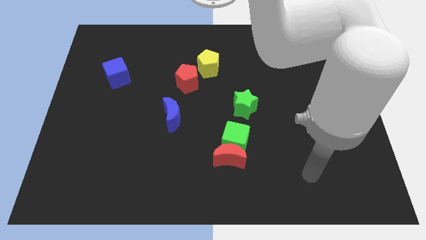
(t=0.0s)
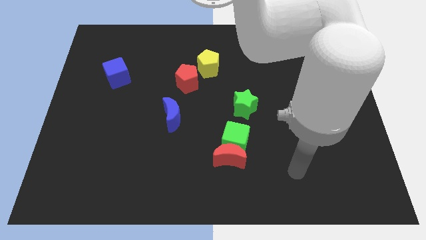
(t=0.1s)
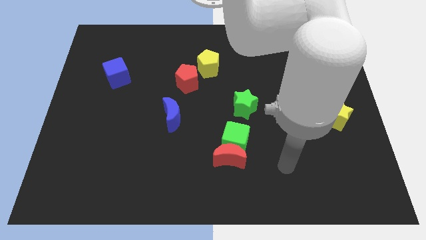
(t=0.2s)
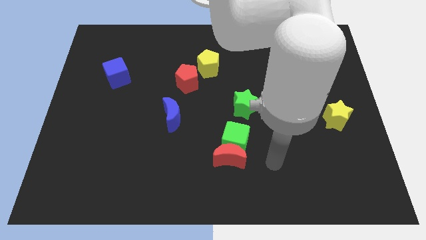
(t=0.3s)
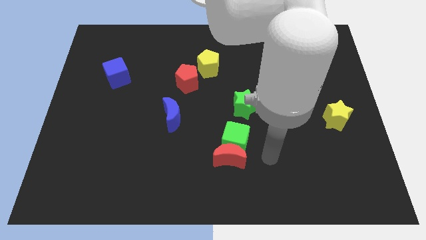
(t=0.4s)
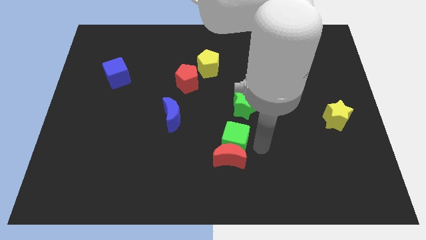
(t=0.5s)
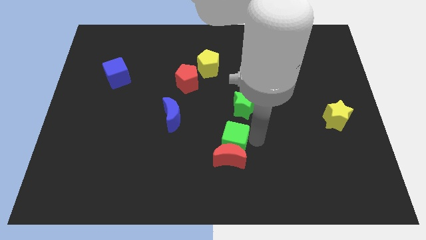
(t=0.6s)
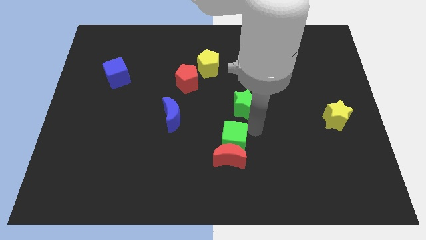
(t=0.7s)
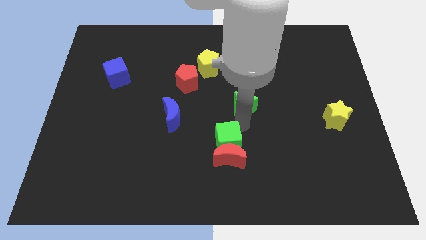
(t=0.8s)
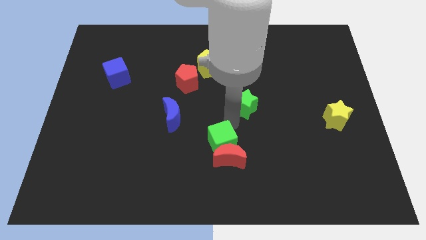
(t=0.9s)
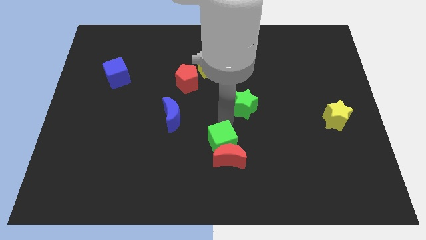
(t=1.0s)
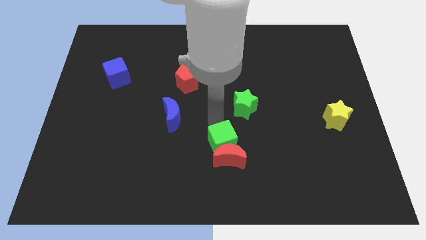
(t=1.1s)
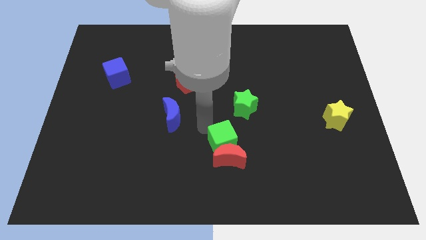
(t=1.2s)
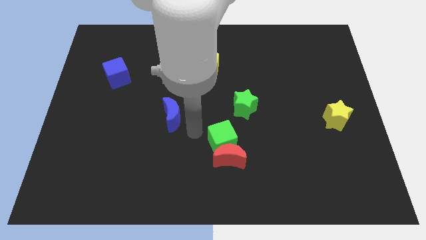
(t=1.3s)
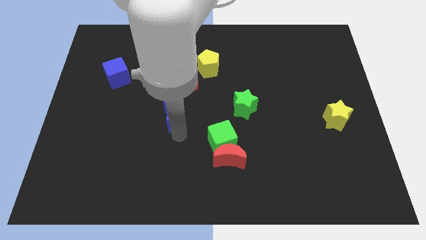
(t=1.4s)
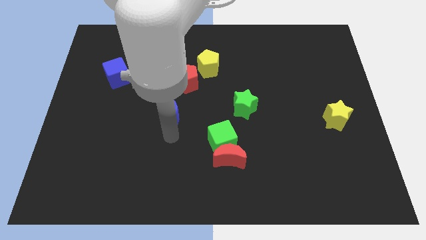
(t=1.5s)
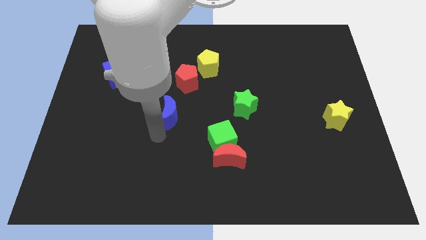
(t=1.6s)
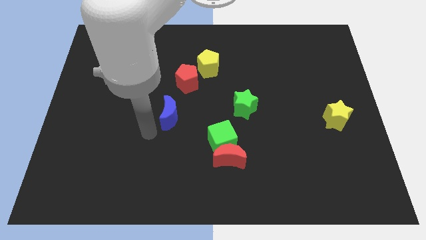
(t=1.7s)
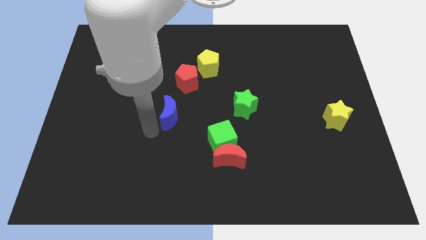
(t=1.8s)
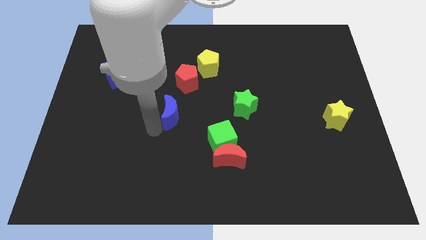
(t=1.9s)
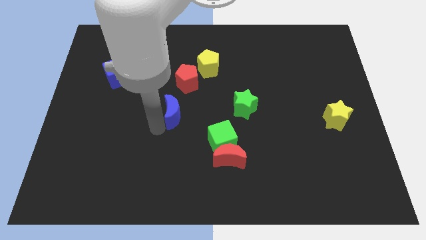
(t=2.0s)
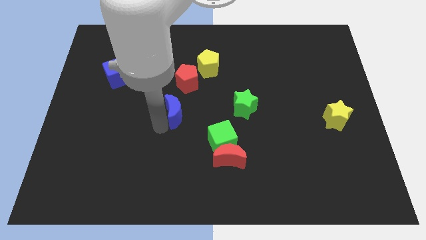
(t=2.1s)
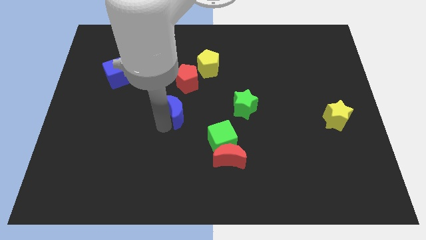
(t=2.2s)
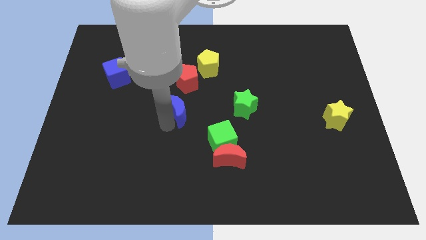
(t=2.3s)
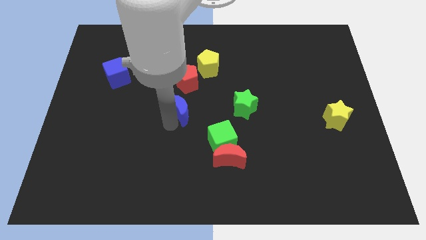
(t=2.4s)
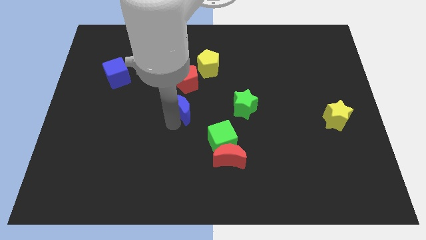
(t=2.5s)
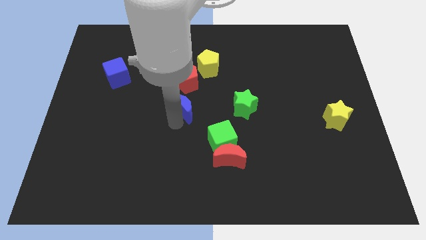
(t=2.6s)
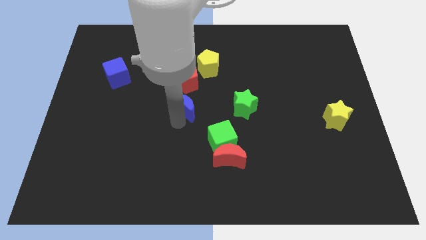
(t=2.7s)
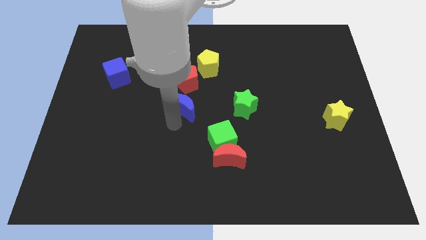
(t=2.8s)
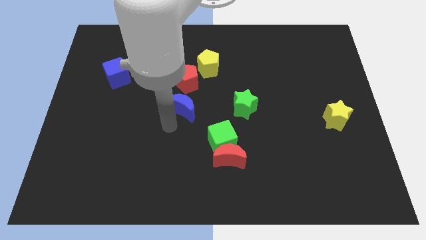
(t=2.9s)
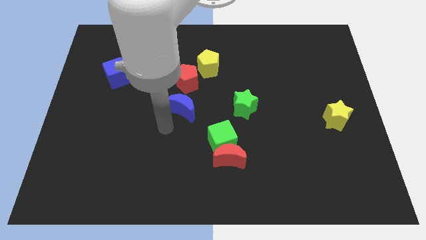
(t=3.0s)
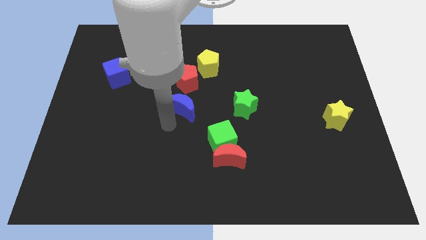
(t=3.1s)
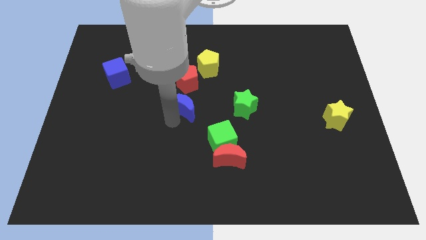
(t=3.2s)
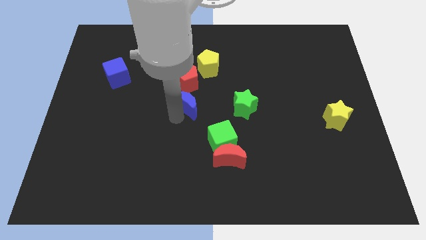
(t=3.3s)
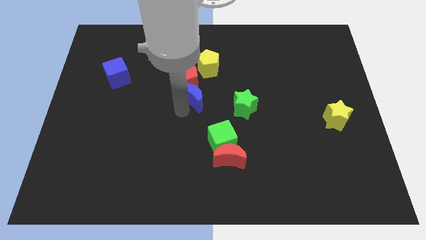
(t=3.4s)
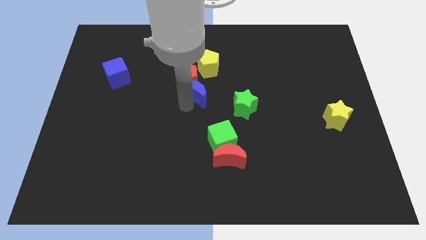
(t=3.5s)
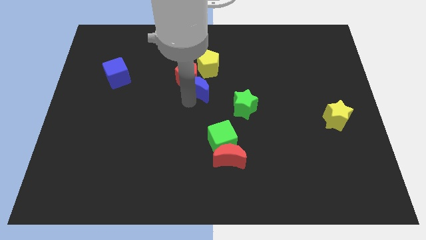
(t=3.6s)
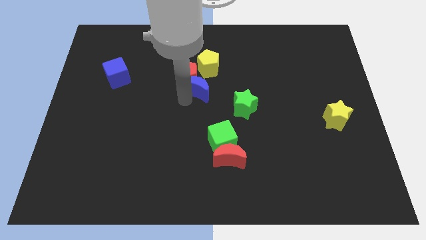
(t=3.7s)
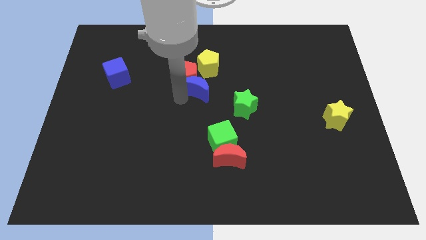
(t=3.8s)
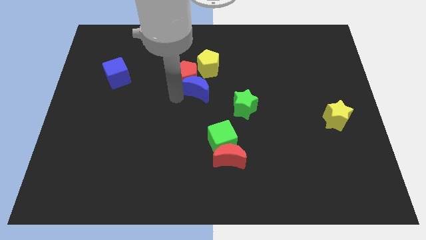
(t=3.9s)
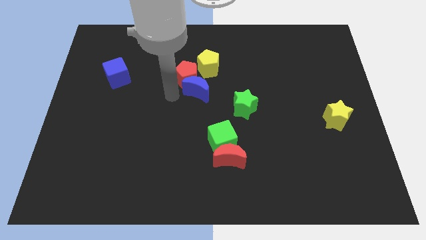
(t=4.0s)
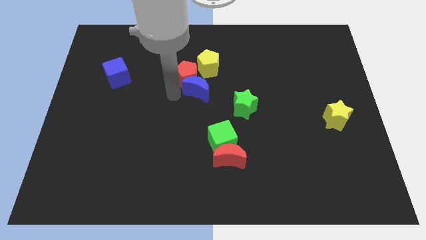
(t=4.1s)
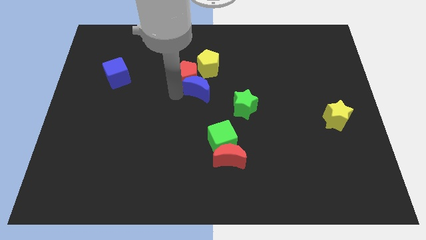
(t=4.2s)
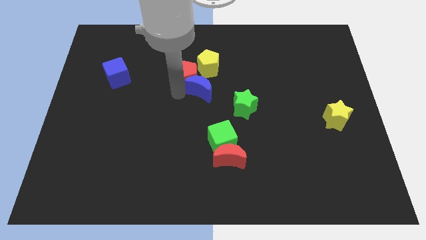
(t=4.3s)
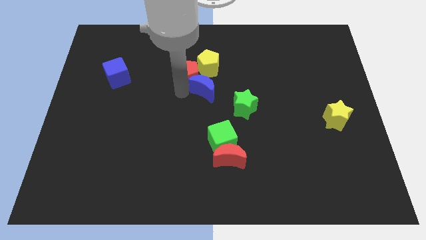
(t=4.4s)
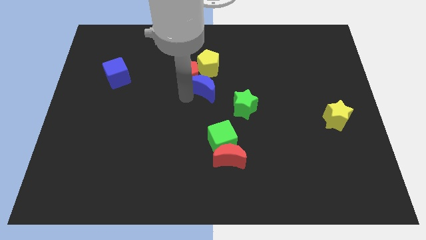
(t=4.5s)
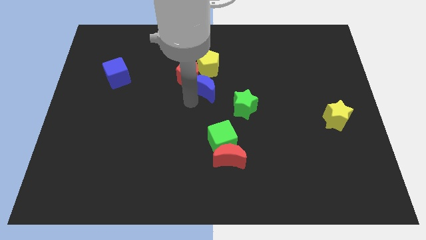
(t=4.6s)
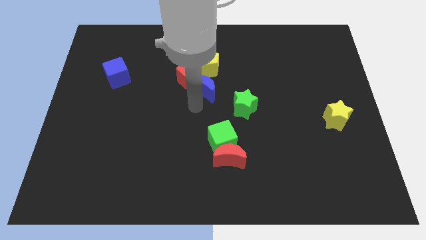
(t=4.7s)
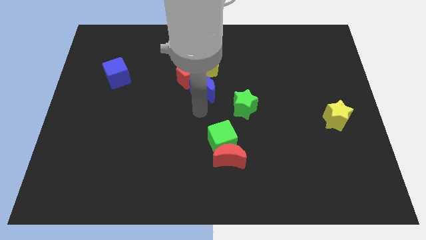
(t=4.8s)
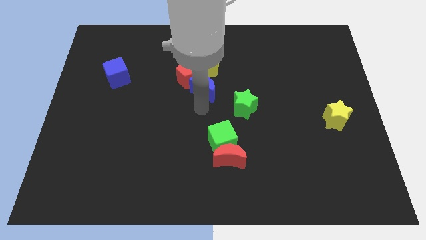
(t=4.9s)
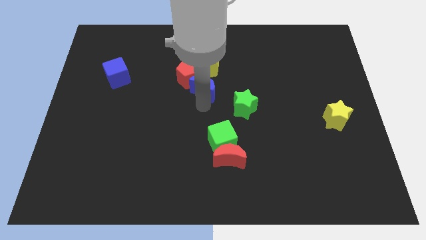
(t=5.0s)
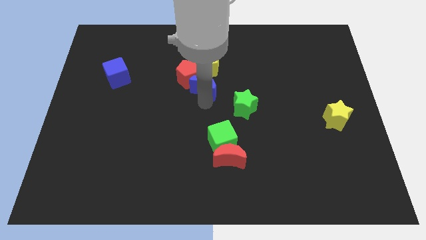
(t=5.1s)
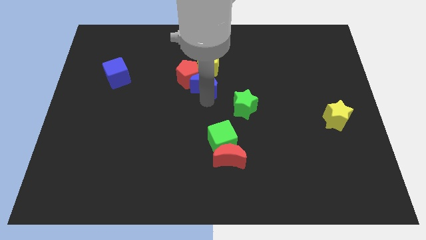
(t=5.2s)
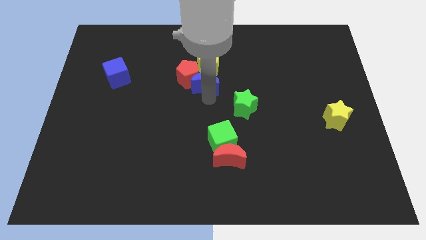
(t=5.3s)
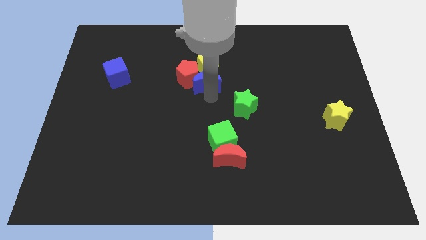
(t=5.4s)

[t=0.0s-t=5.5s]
slide the blue moon next to the yellow pentagon

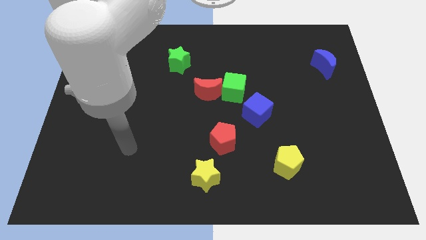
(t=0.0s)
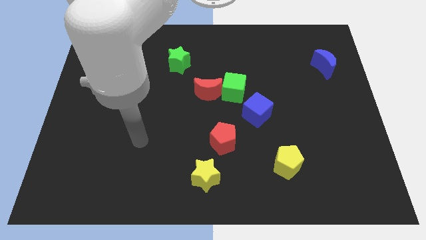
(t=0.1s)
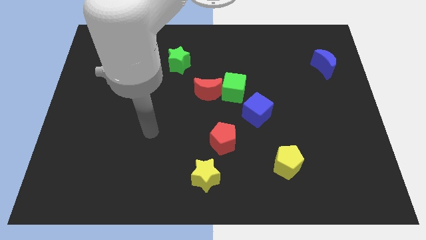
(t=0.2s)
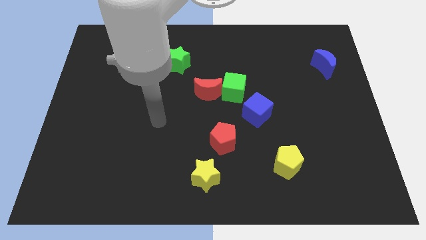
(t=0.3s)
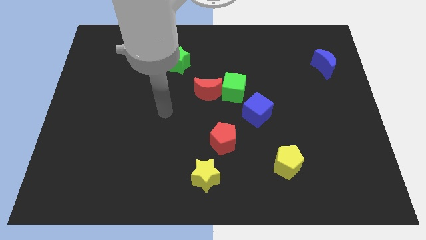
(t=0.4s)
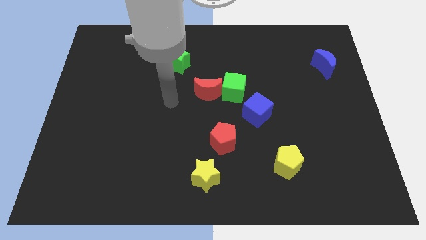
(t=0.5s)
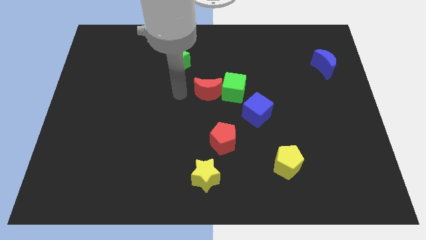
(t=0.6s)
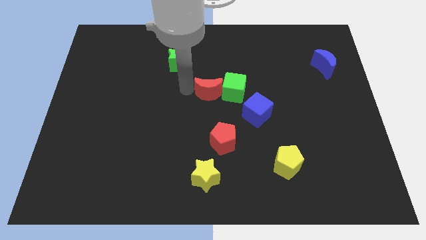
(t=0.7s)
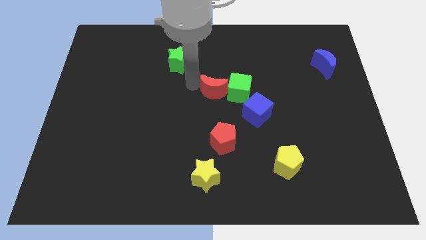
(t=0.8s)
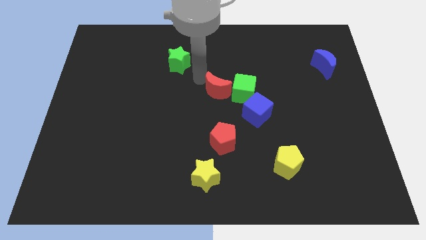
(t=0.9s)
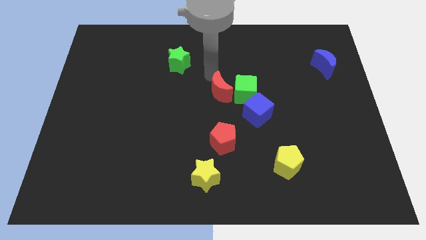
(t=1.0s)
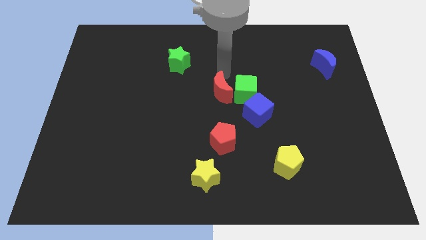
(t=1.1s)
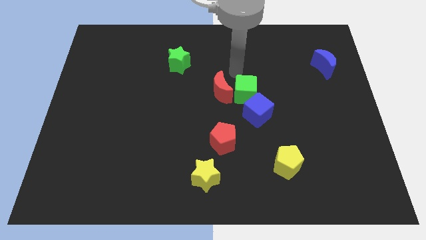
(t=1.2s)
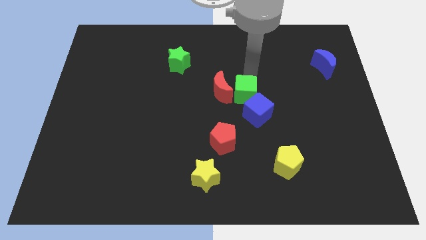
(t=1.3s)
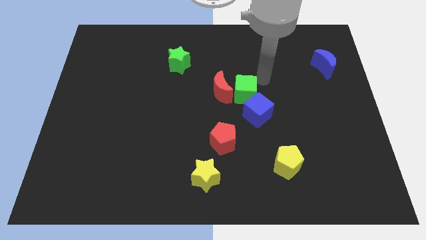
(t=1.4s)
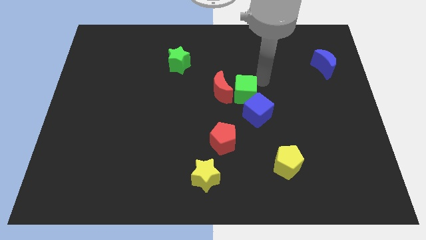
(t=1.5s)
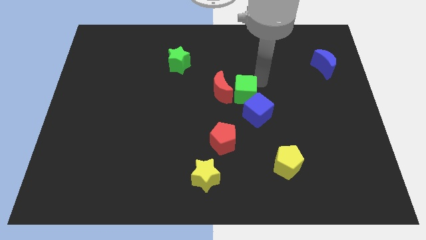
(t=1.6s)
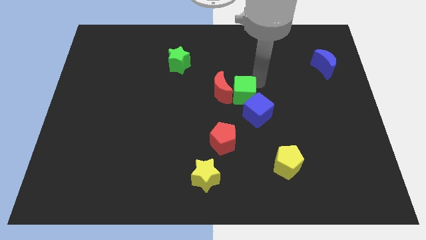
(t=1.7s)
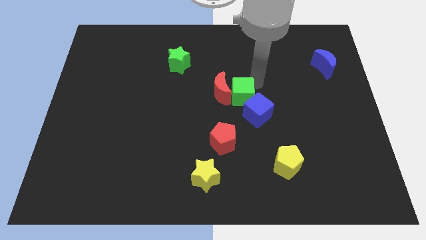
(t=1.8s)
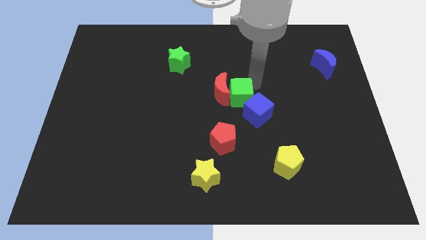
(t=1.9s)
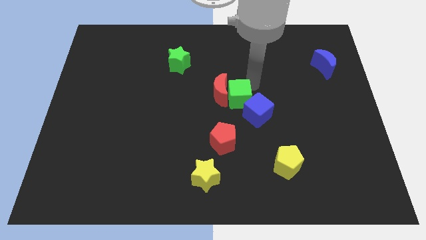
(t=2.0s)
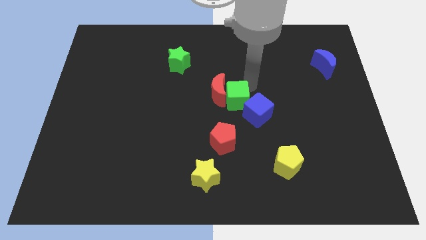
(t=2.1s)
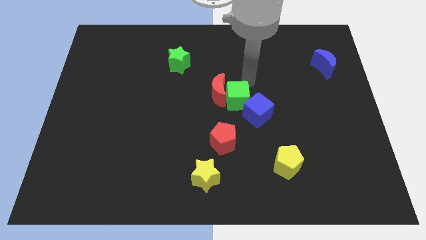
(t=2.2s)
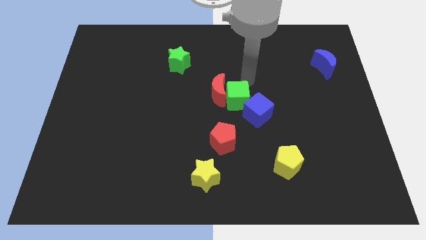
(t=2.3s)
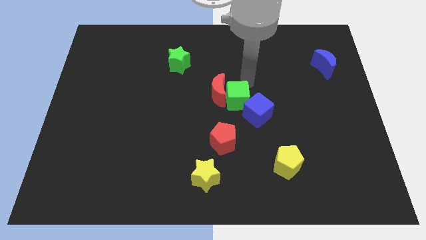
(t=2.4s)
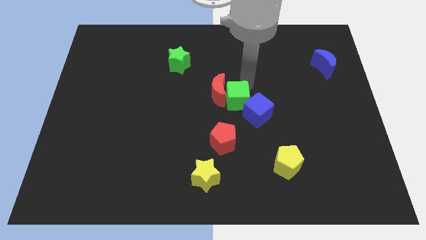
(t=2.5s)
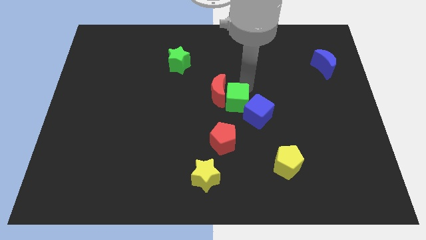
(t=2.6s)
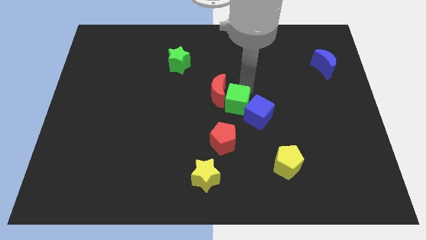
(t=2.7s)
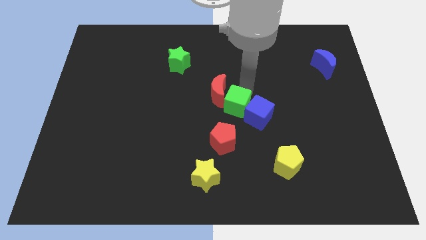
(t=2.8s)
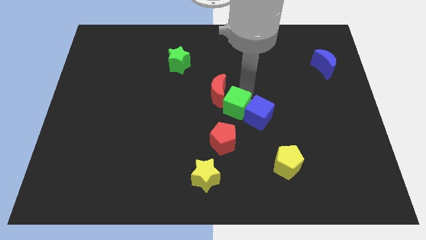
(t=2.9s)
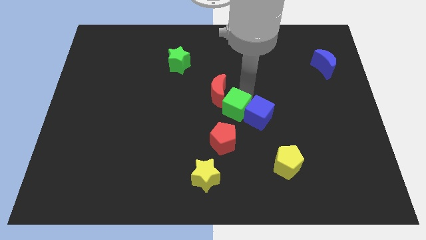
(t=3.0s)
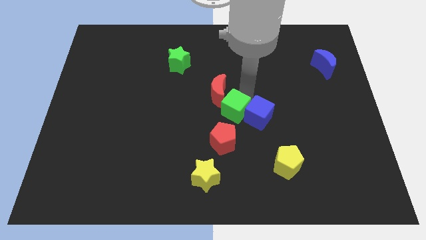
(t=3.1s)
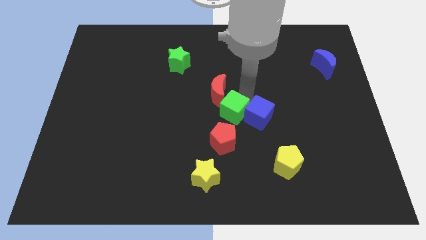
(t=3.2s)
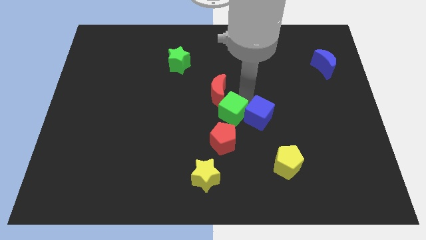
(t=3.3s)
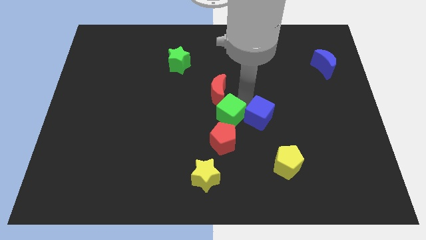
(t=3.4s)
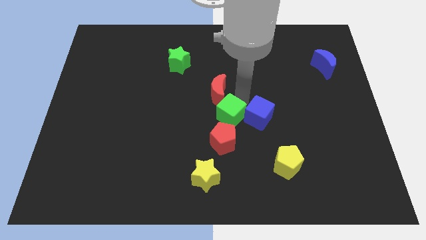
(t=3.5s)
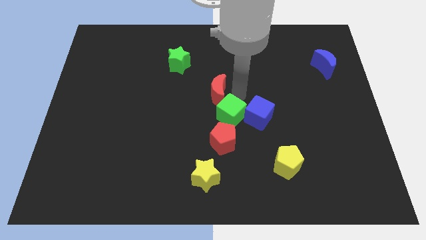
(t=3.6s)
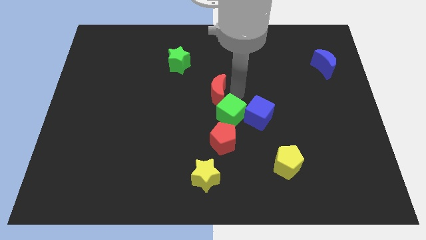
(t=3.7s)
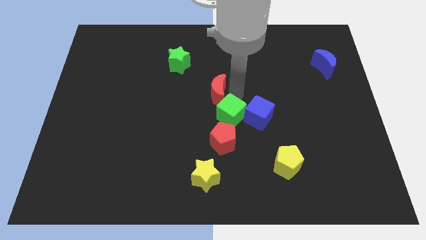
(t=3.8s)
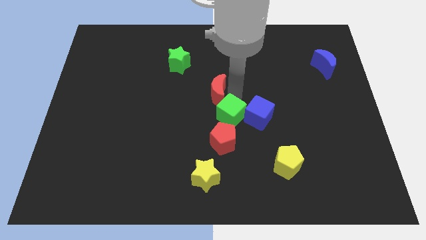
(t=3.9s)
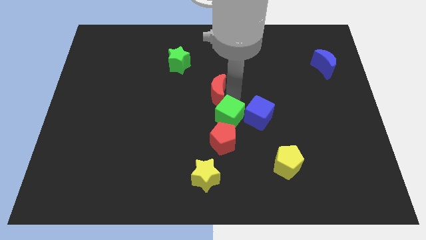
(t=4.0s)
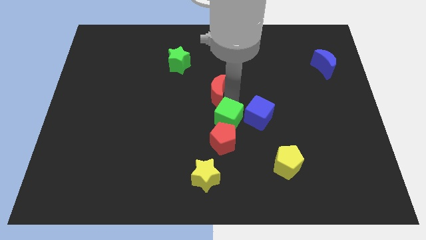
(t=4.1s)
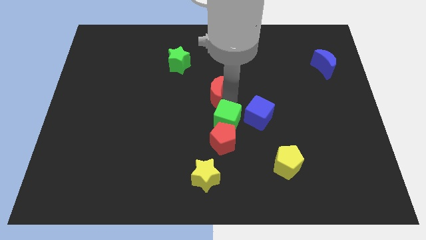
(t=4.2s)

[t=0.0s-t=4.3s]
put the green cube to the red pentagon
